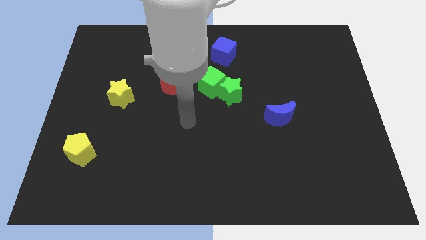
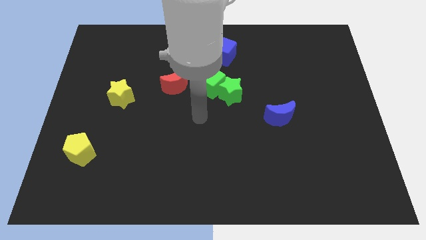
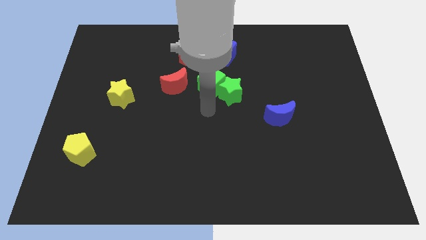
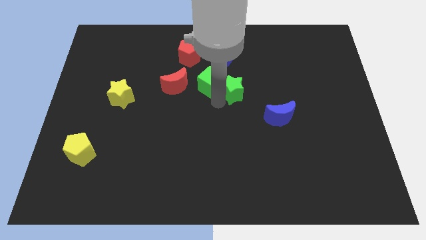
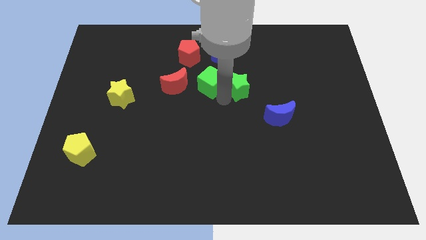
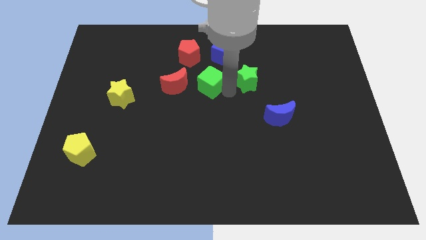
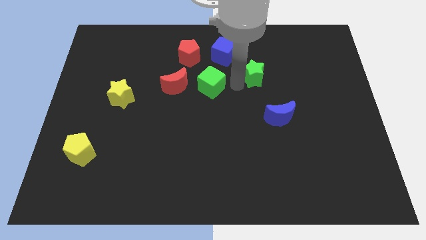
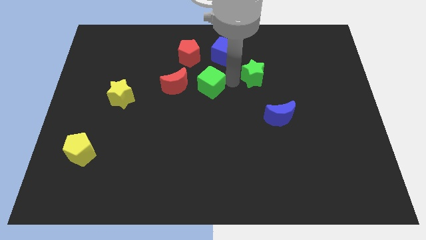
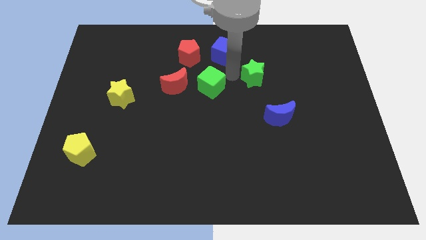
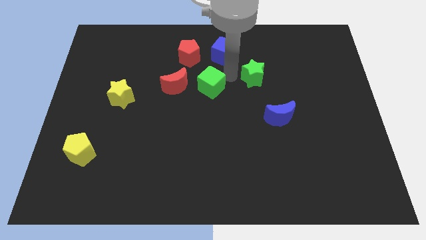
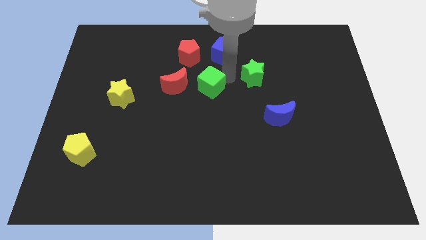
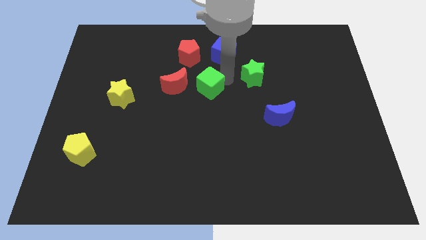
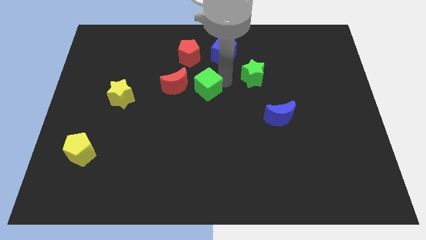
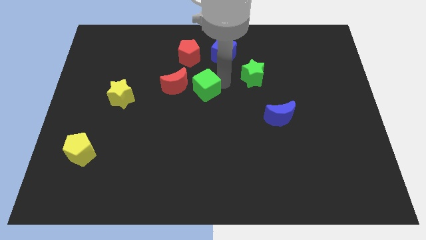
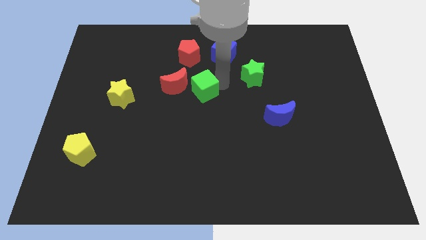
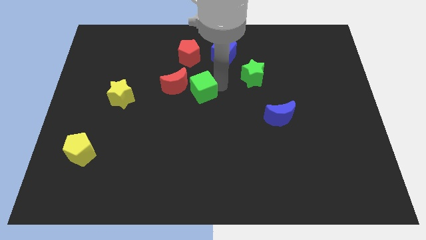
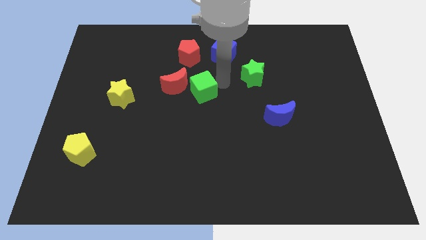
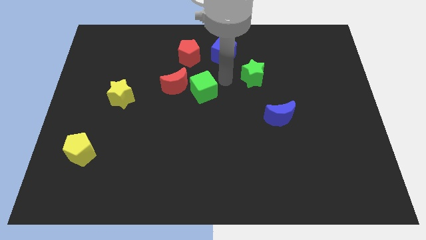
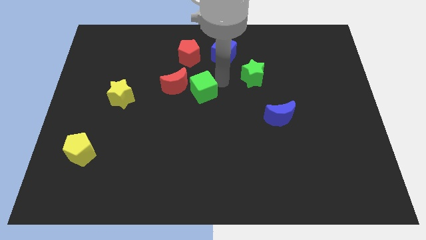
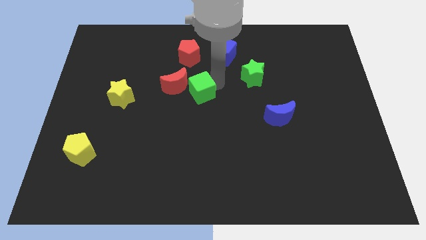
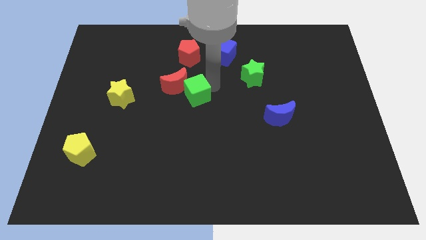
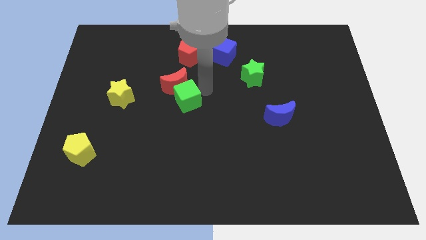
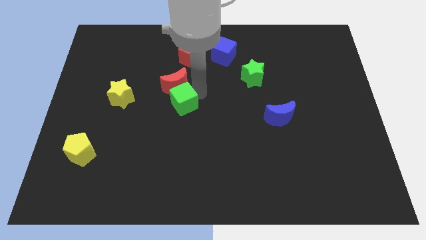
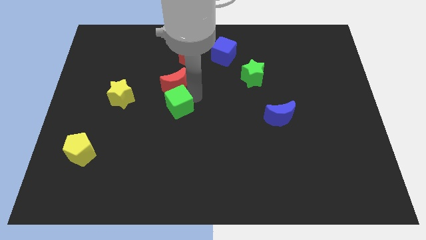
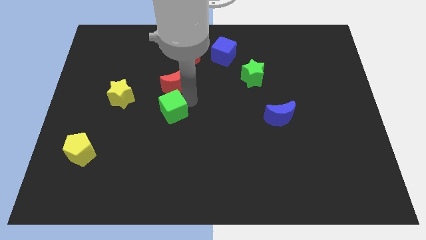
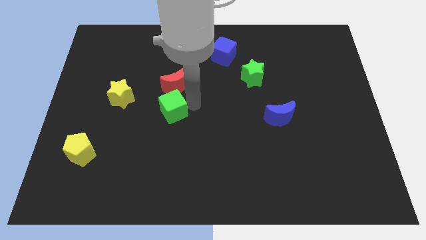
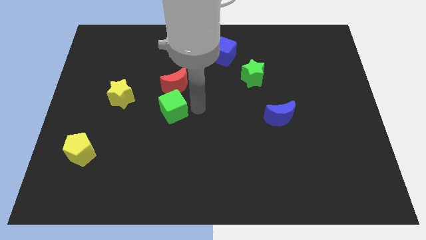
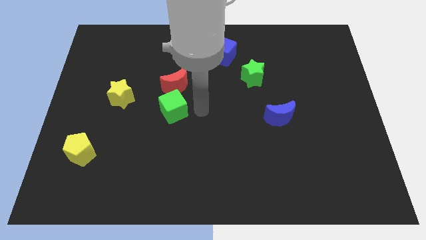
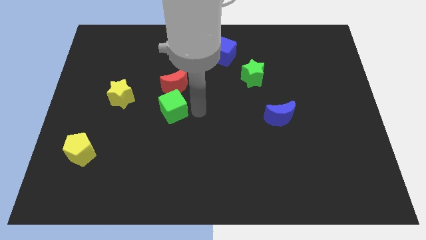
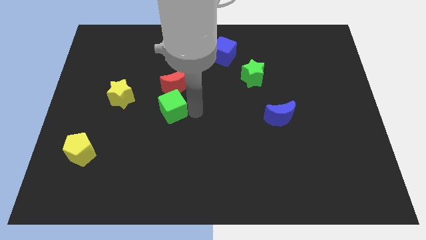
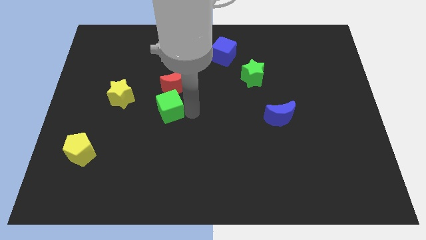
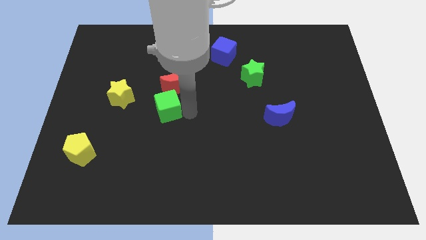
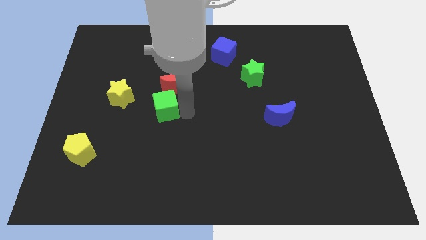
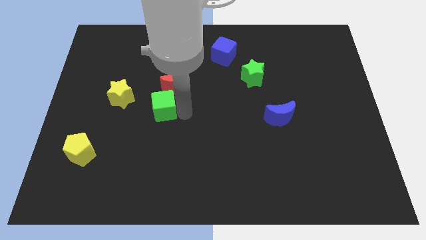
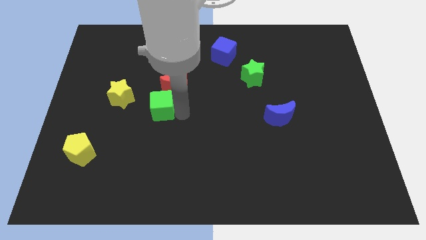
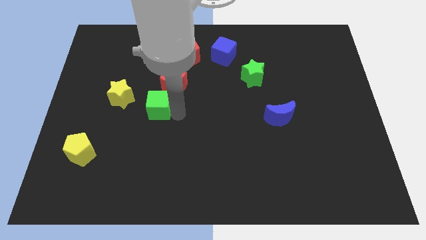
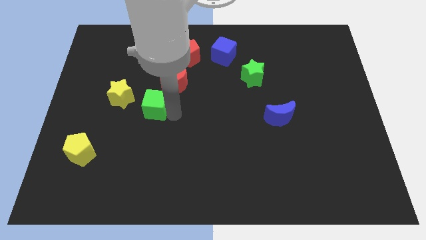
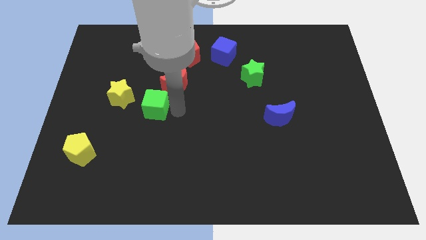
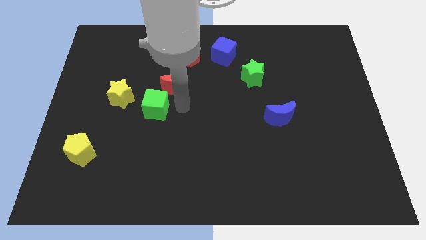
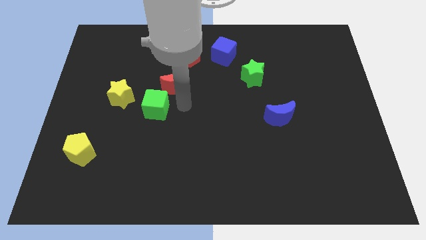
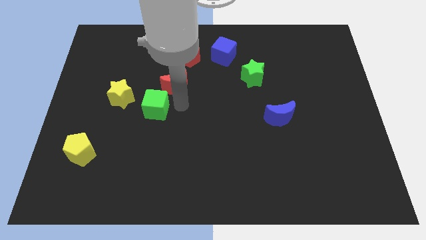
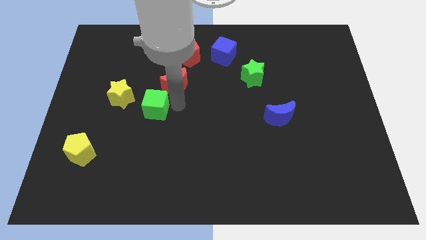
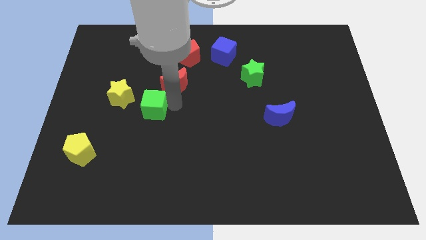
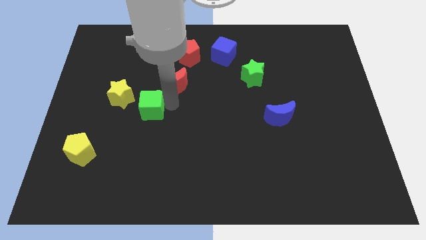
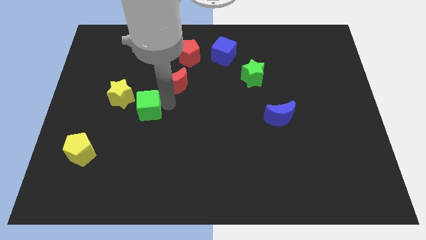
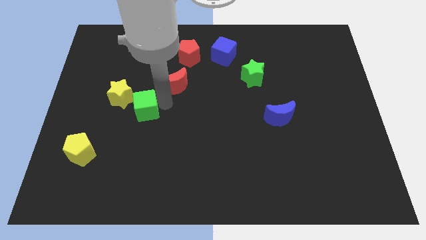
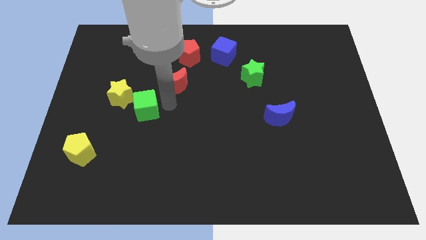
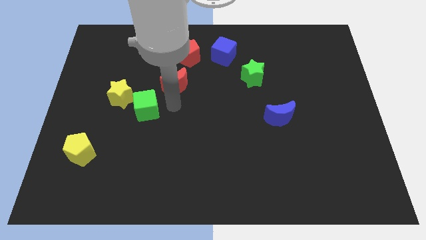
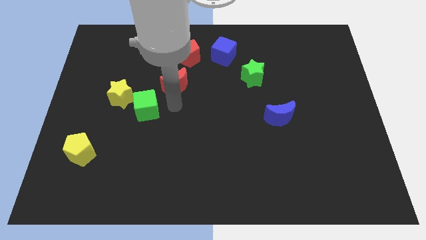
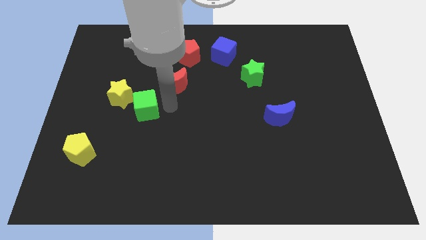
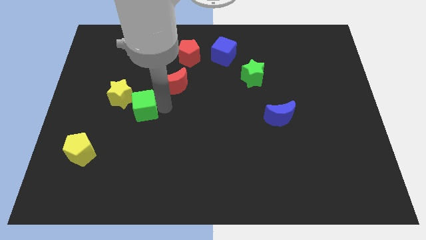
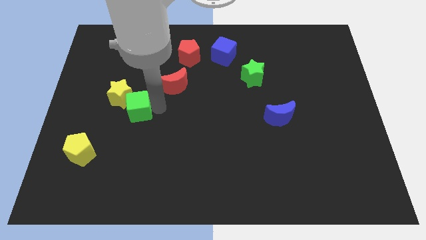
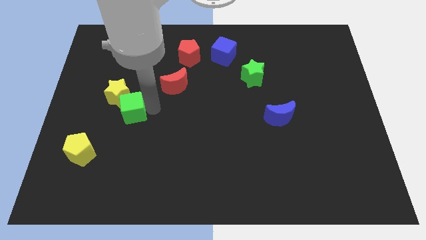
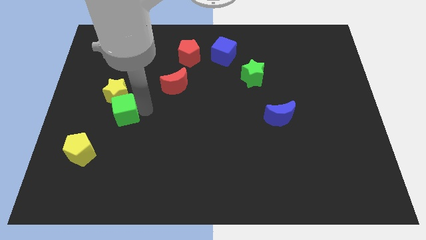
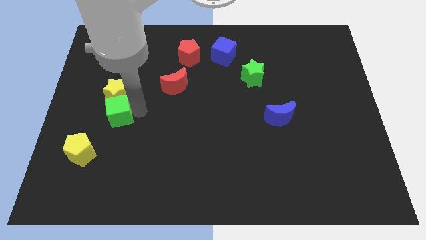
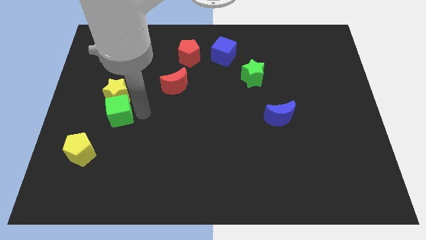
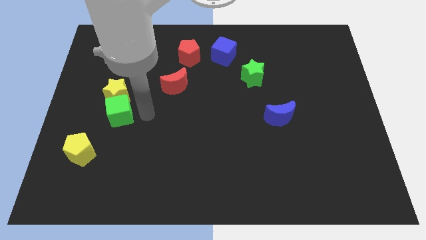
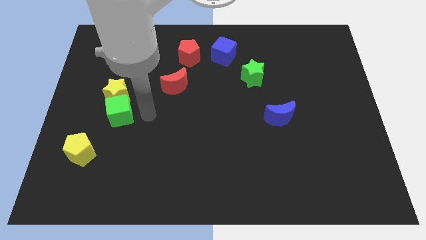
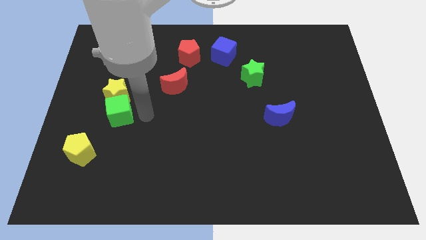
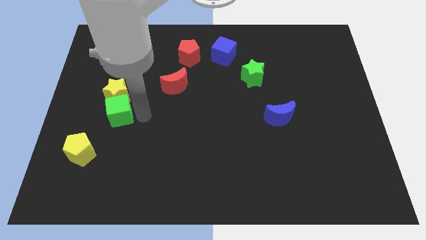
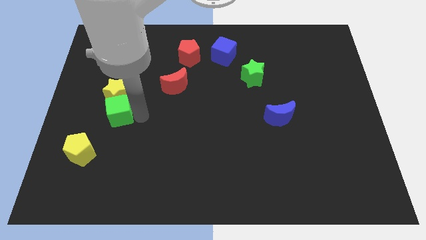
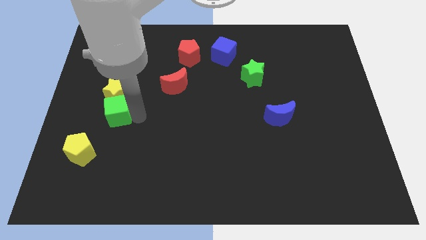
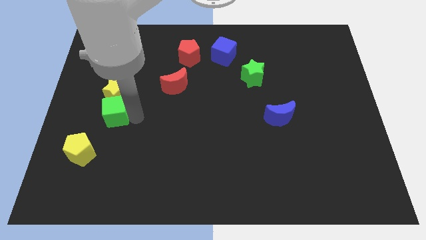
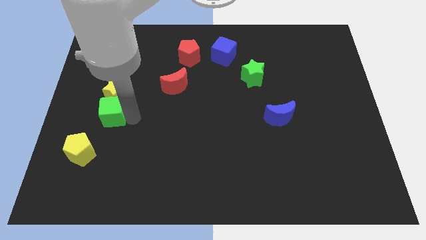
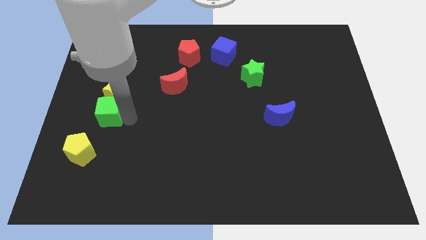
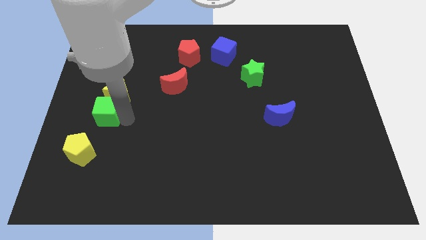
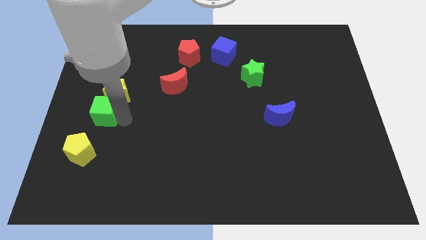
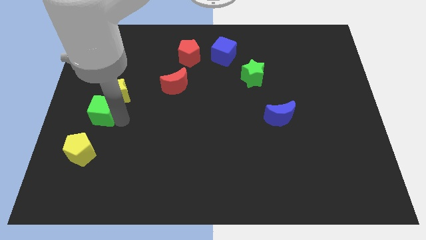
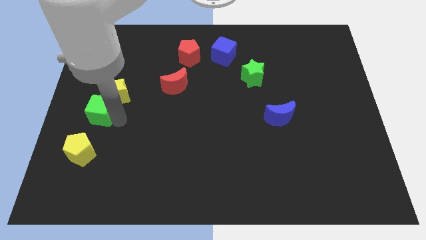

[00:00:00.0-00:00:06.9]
slide the green cube to the center left
